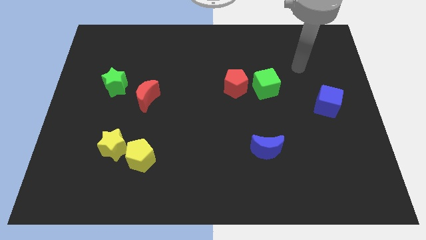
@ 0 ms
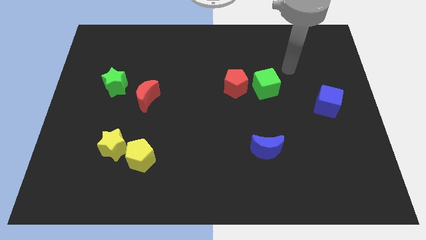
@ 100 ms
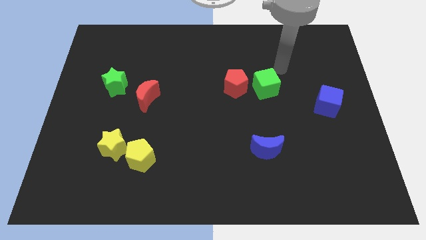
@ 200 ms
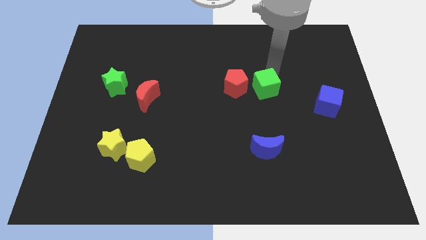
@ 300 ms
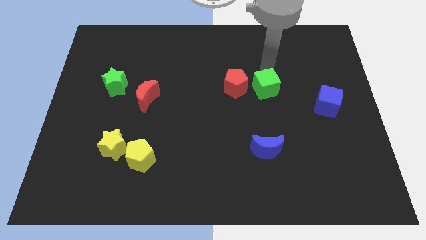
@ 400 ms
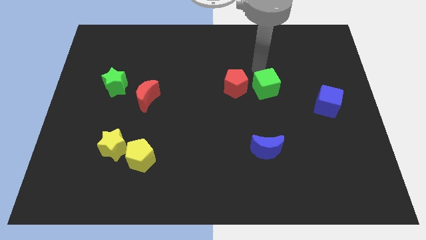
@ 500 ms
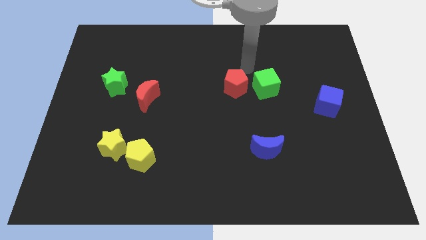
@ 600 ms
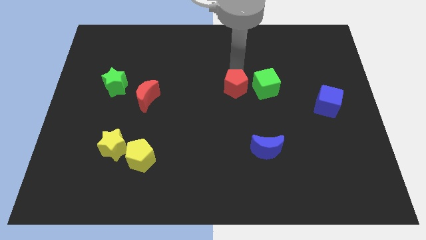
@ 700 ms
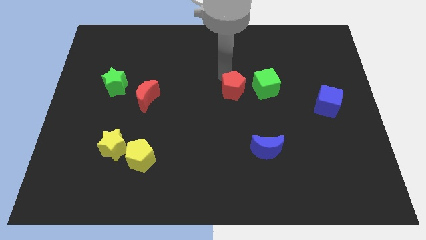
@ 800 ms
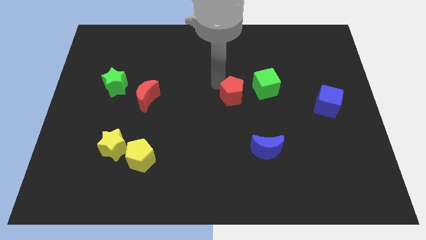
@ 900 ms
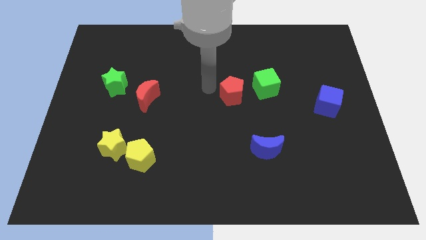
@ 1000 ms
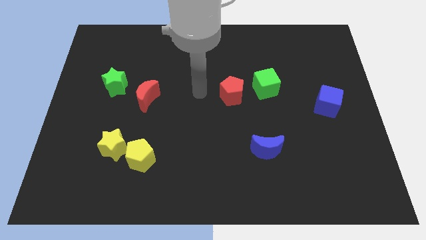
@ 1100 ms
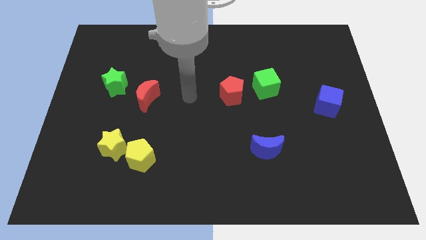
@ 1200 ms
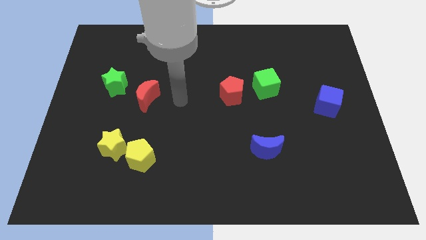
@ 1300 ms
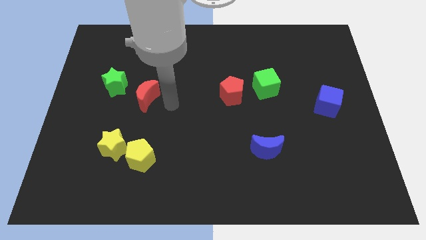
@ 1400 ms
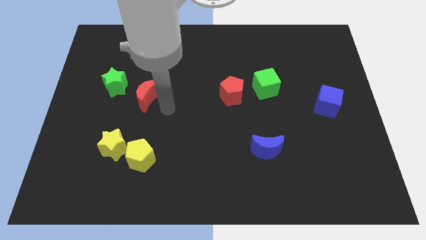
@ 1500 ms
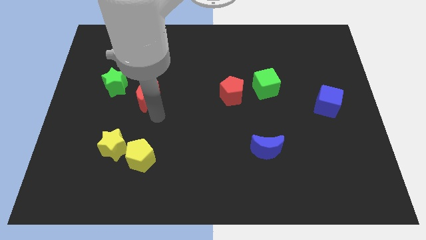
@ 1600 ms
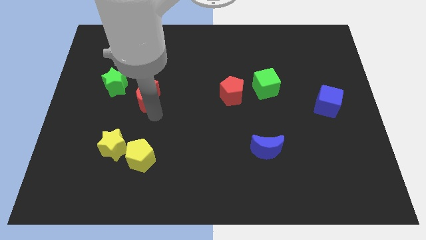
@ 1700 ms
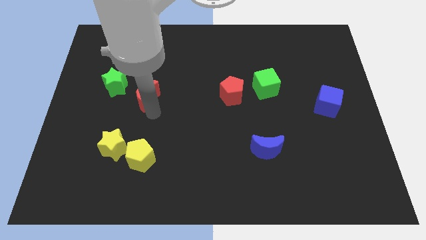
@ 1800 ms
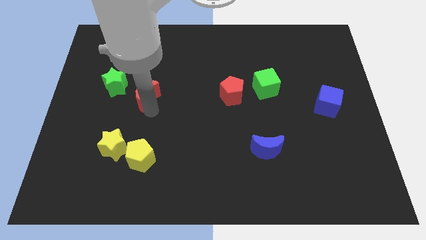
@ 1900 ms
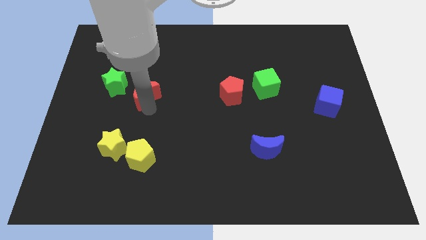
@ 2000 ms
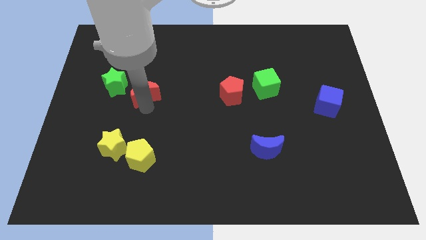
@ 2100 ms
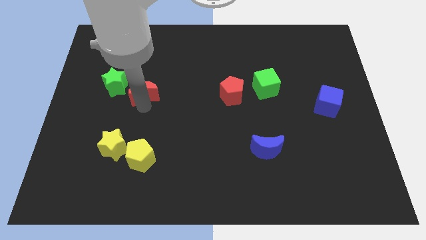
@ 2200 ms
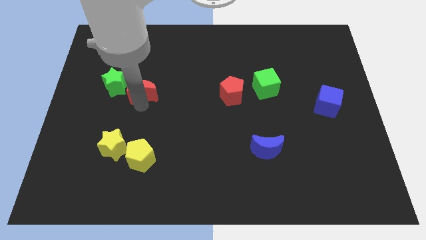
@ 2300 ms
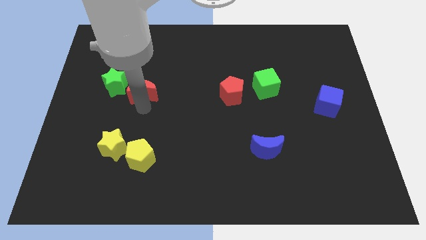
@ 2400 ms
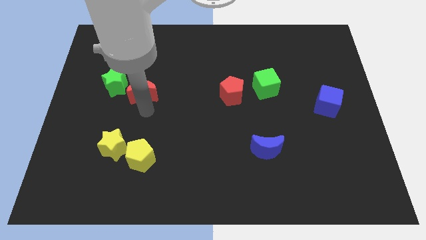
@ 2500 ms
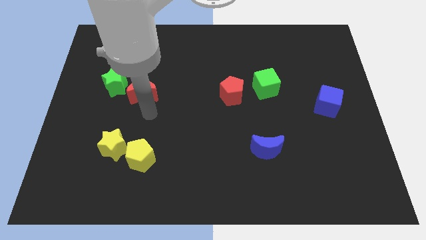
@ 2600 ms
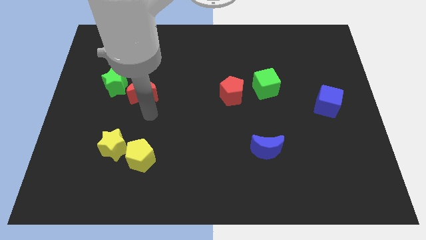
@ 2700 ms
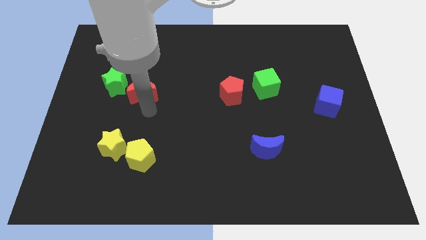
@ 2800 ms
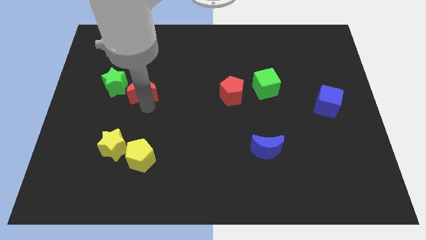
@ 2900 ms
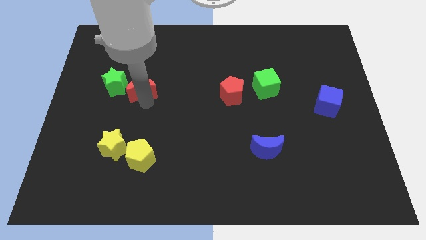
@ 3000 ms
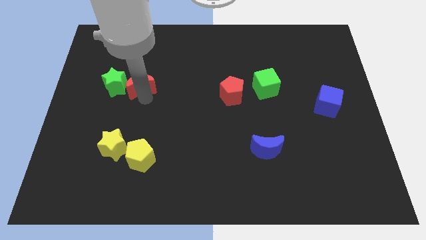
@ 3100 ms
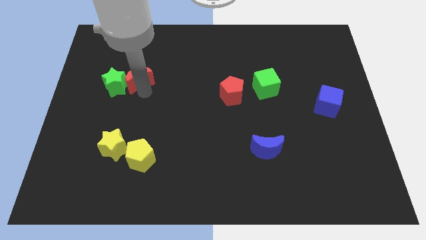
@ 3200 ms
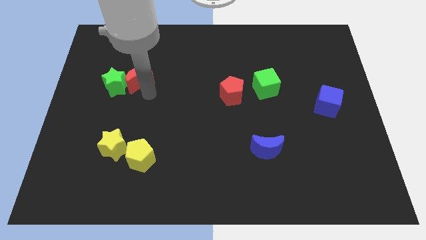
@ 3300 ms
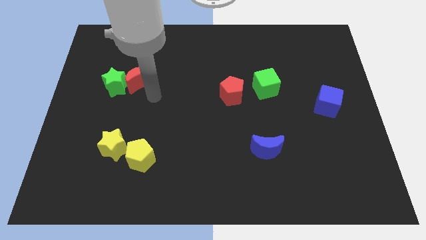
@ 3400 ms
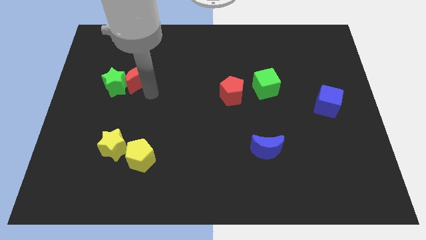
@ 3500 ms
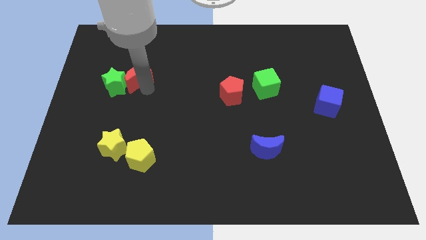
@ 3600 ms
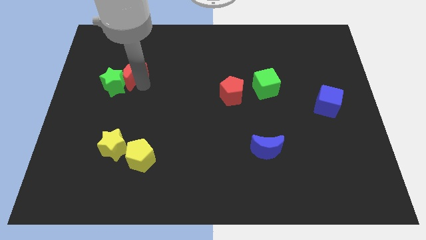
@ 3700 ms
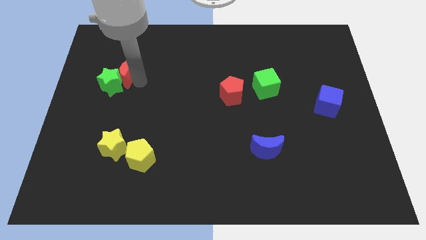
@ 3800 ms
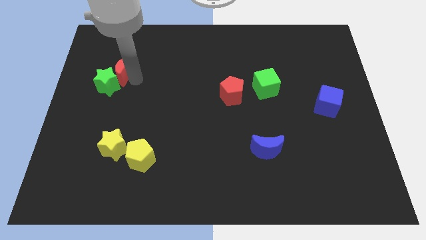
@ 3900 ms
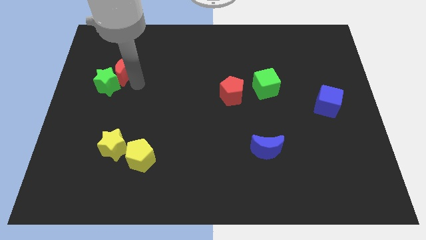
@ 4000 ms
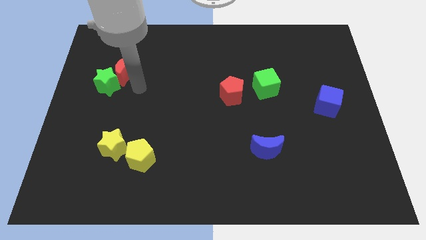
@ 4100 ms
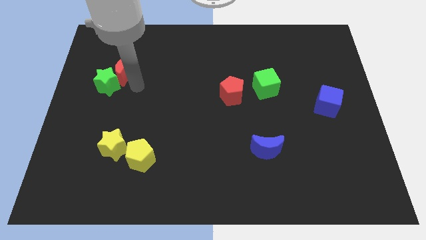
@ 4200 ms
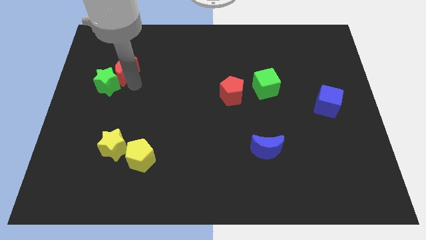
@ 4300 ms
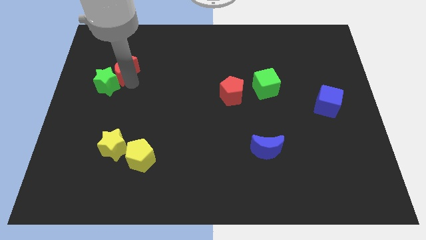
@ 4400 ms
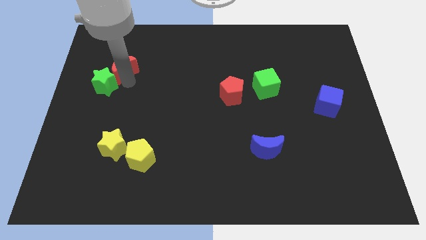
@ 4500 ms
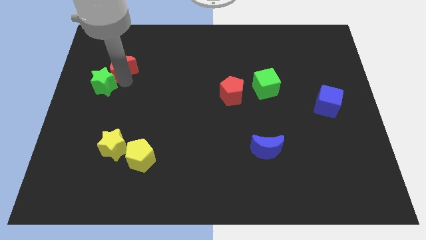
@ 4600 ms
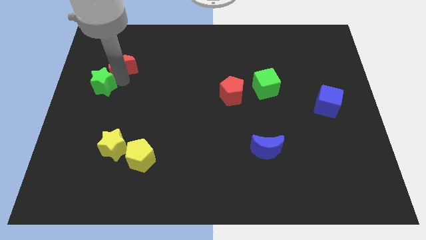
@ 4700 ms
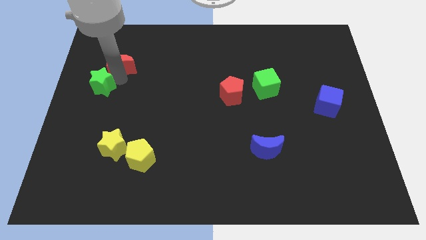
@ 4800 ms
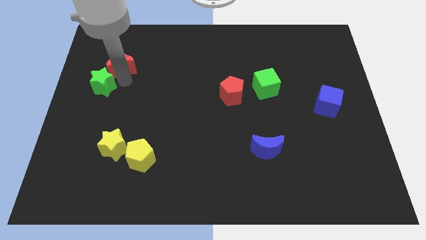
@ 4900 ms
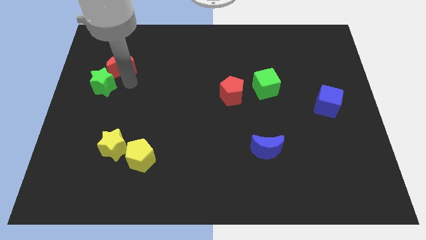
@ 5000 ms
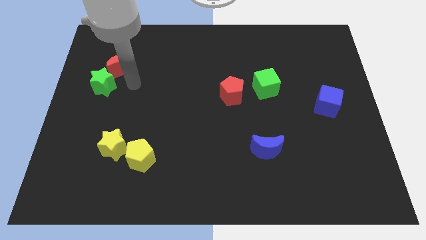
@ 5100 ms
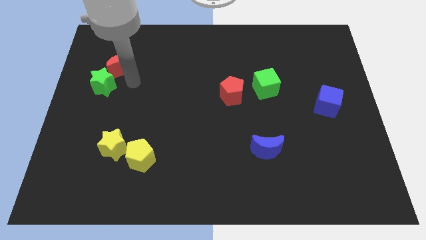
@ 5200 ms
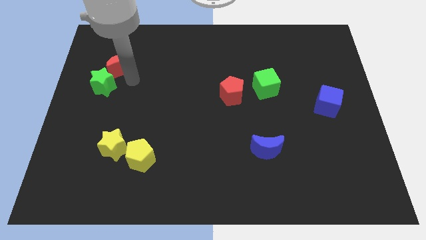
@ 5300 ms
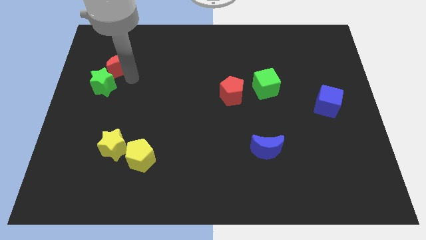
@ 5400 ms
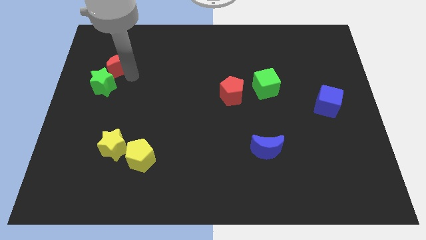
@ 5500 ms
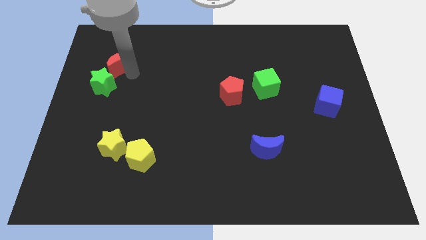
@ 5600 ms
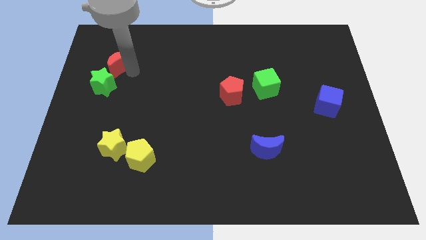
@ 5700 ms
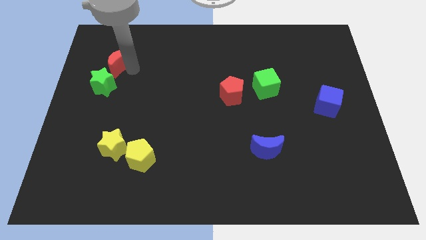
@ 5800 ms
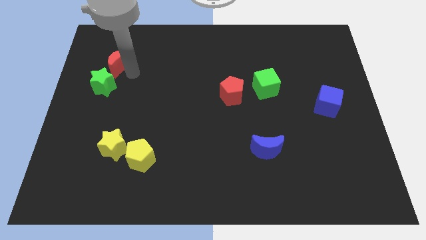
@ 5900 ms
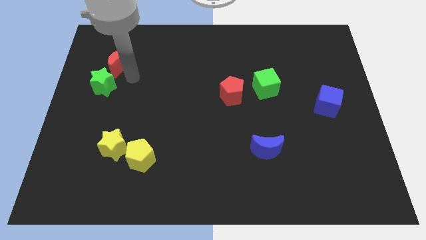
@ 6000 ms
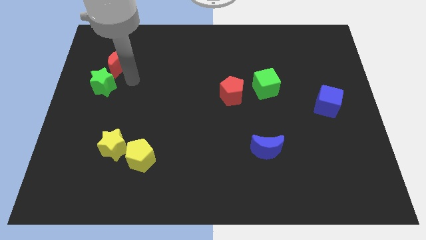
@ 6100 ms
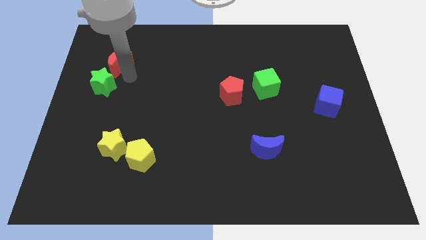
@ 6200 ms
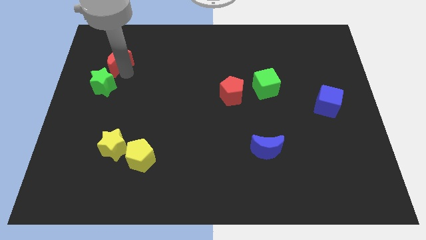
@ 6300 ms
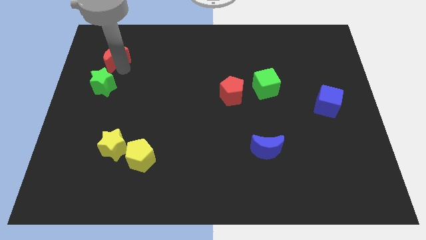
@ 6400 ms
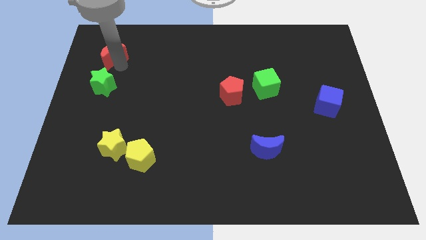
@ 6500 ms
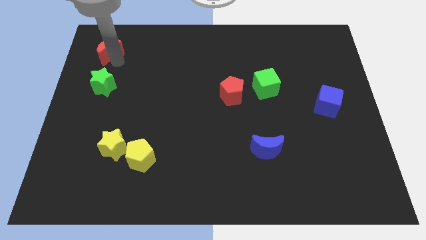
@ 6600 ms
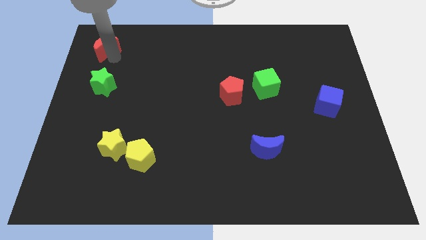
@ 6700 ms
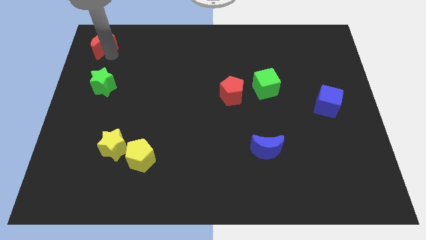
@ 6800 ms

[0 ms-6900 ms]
slide the red moon to the upper left corner
